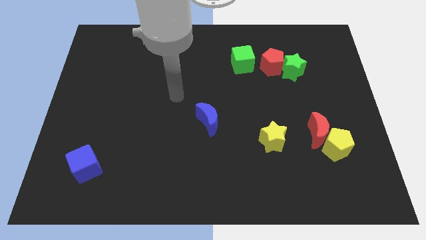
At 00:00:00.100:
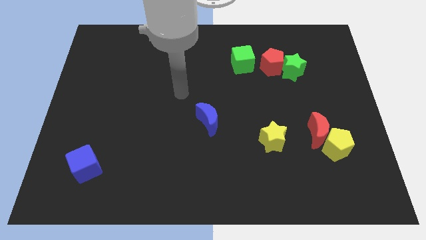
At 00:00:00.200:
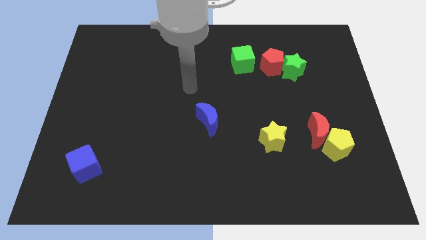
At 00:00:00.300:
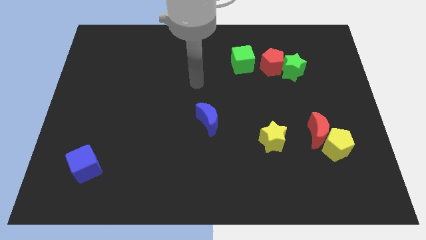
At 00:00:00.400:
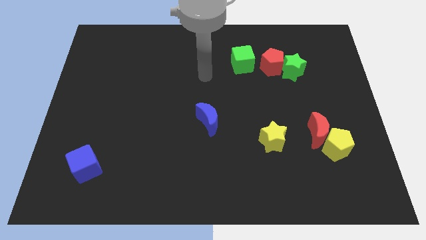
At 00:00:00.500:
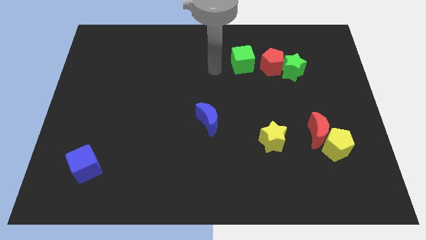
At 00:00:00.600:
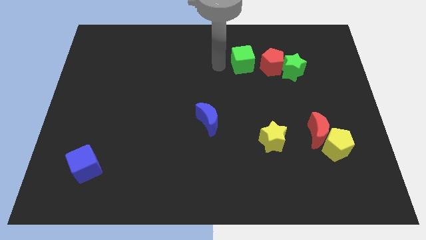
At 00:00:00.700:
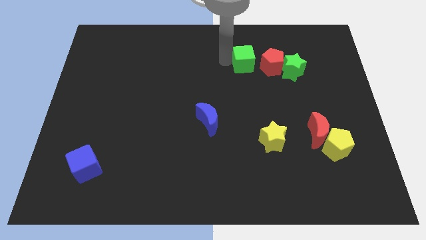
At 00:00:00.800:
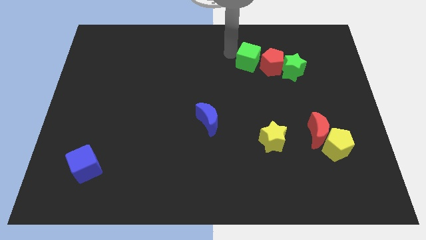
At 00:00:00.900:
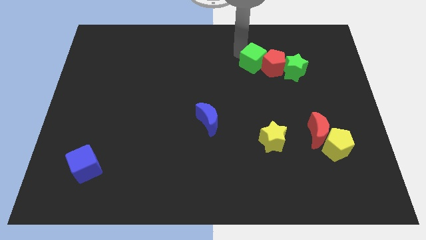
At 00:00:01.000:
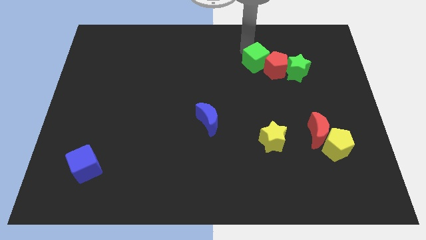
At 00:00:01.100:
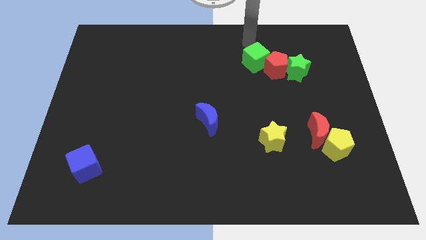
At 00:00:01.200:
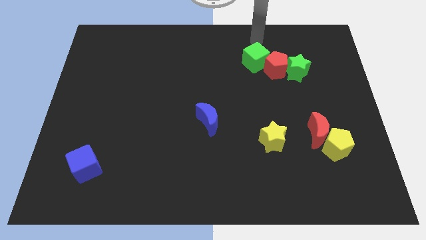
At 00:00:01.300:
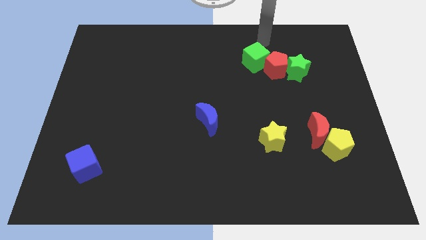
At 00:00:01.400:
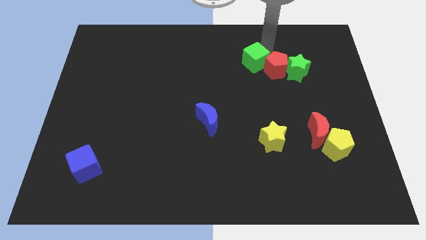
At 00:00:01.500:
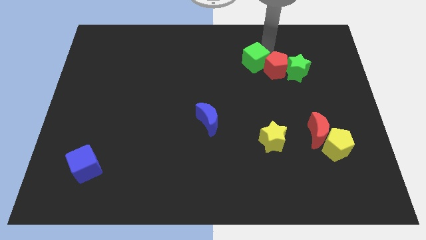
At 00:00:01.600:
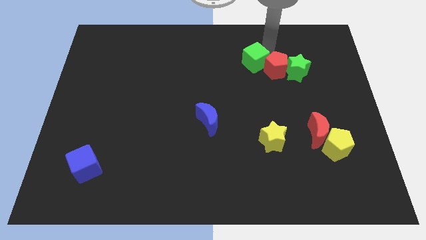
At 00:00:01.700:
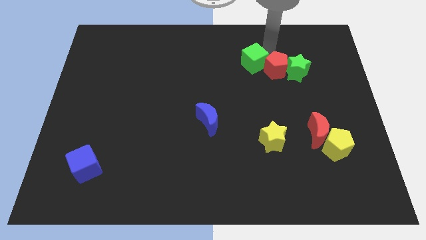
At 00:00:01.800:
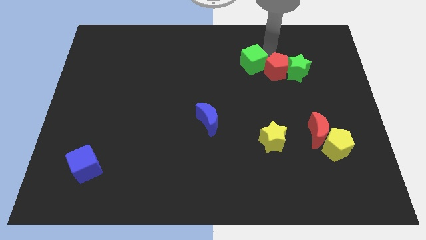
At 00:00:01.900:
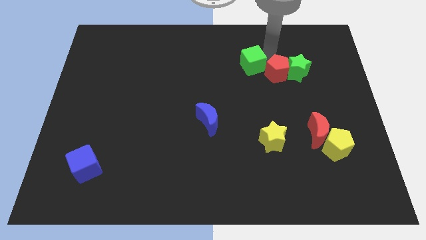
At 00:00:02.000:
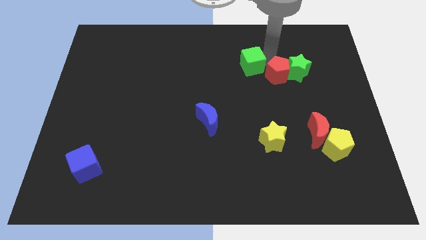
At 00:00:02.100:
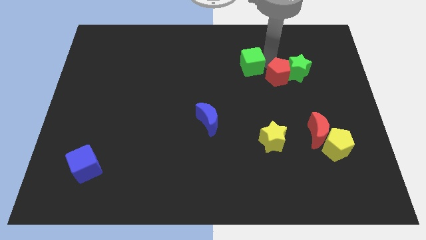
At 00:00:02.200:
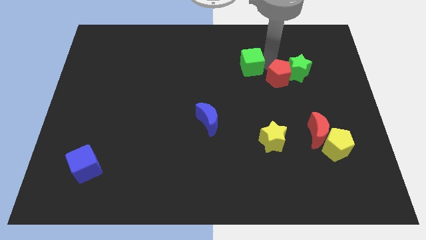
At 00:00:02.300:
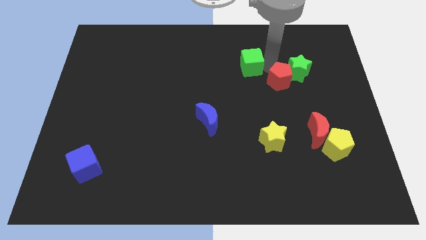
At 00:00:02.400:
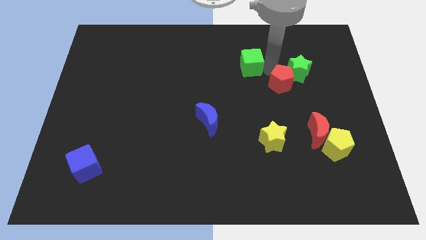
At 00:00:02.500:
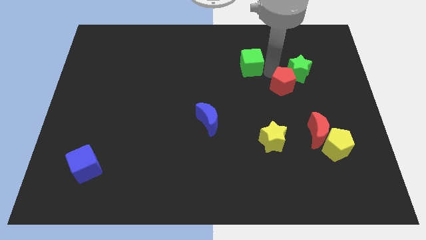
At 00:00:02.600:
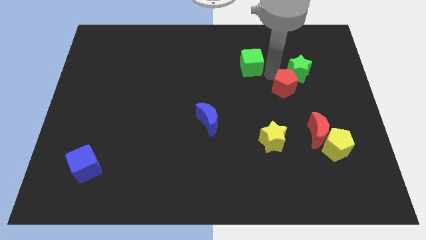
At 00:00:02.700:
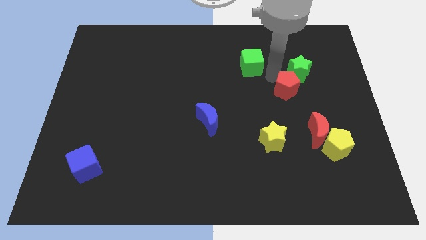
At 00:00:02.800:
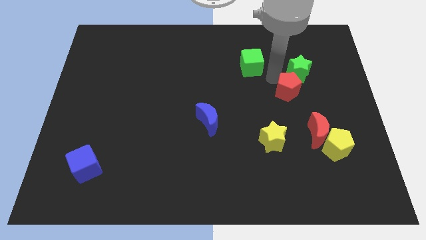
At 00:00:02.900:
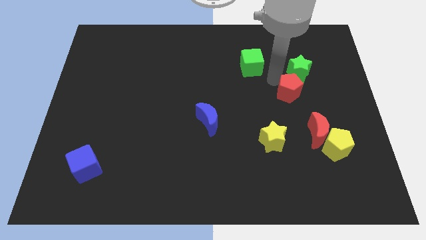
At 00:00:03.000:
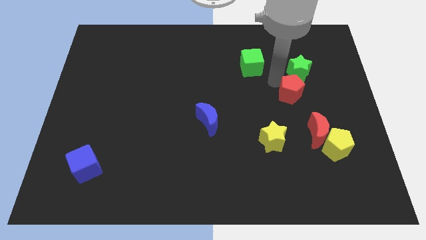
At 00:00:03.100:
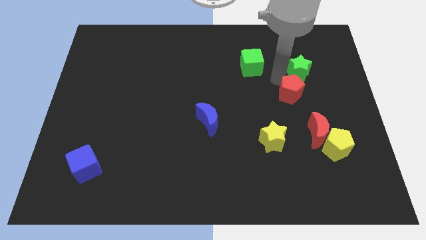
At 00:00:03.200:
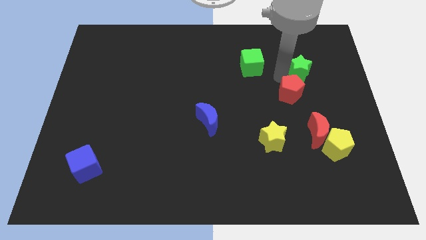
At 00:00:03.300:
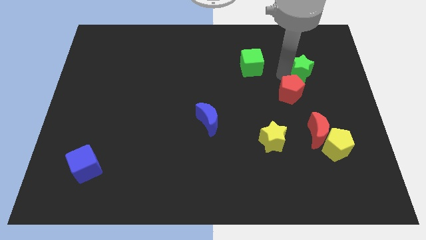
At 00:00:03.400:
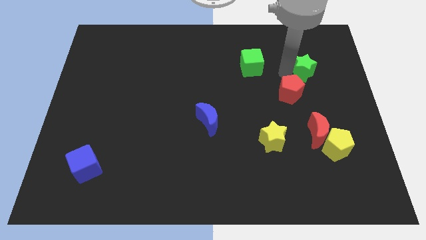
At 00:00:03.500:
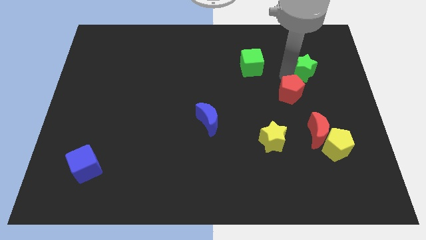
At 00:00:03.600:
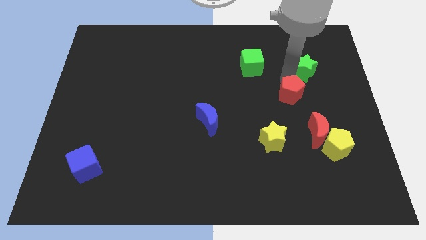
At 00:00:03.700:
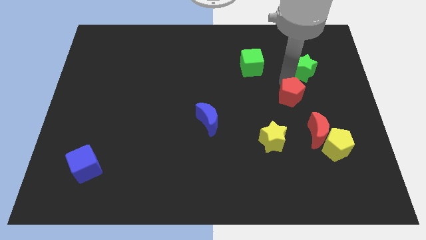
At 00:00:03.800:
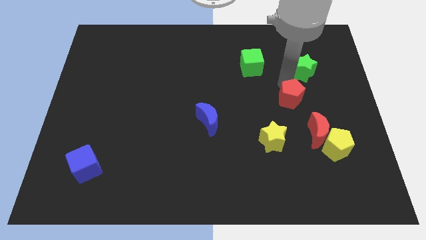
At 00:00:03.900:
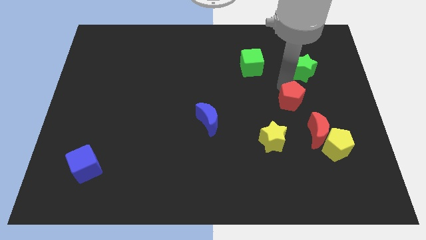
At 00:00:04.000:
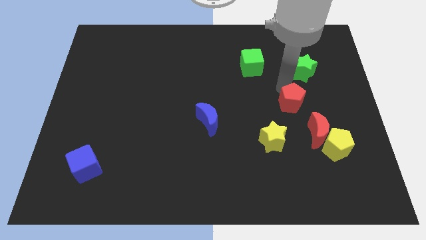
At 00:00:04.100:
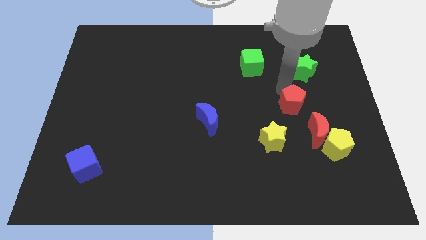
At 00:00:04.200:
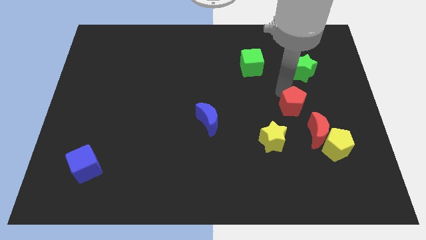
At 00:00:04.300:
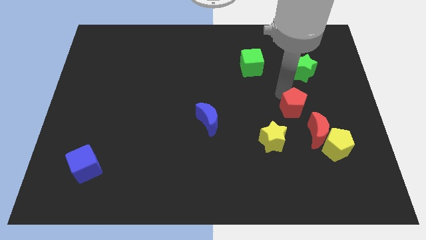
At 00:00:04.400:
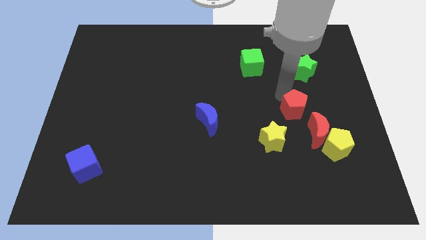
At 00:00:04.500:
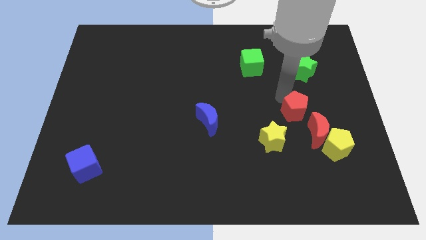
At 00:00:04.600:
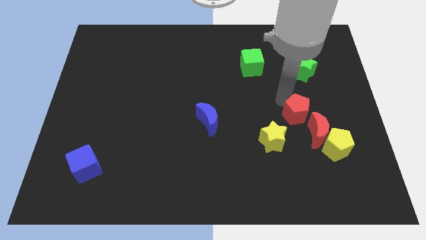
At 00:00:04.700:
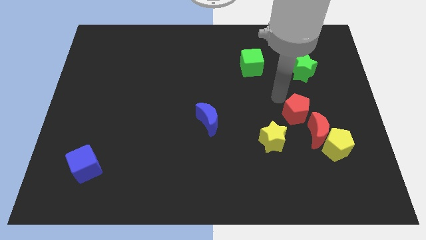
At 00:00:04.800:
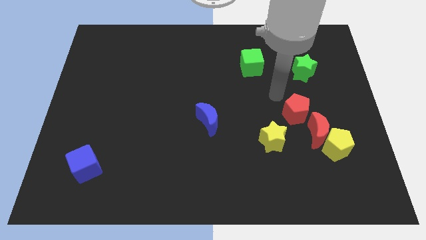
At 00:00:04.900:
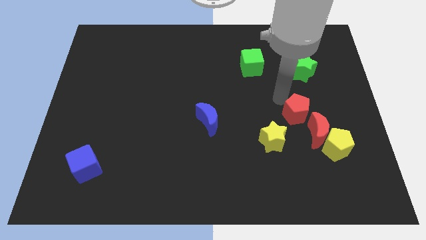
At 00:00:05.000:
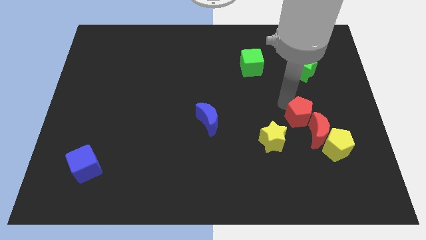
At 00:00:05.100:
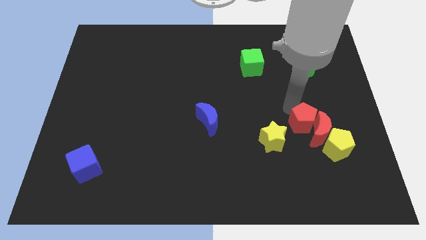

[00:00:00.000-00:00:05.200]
put the red pentagon close to the red moon

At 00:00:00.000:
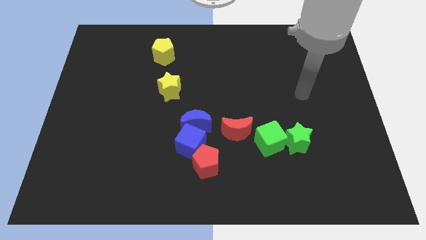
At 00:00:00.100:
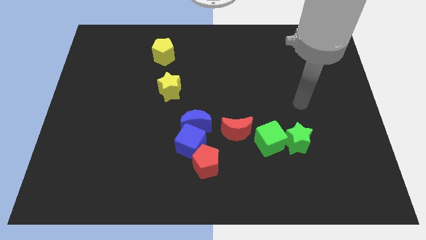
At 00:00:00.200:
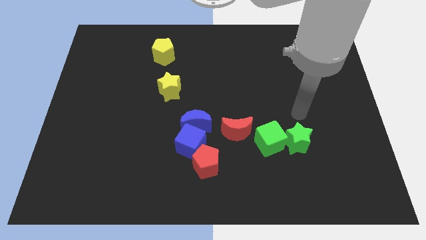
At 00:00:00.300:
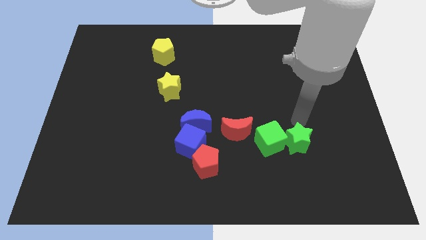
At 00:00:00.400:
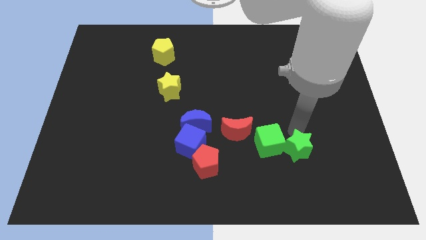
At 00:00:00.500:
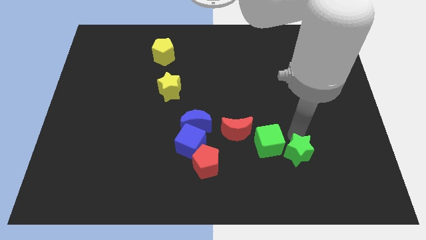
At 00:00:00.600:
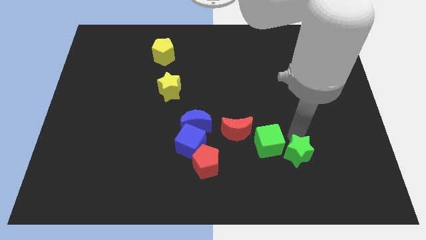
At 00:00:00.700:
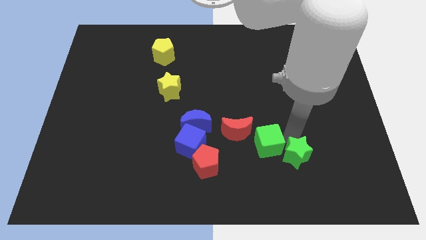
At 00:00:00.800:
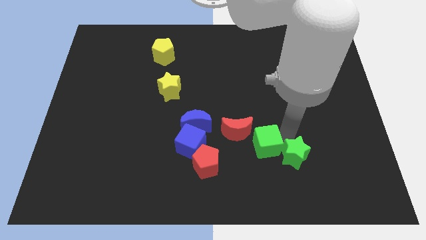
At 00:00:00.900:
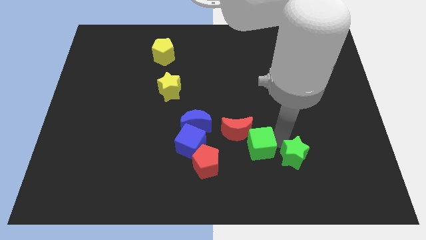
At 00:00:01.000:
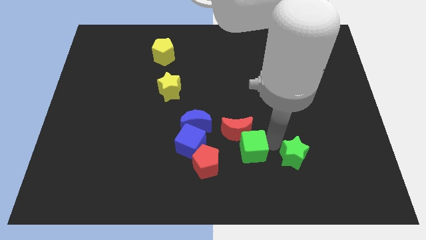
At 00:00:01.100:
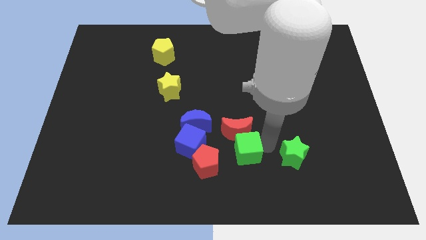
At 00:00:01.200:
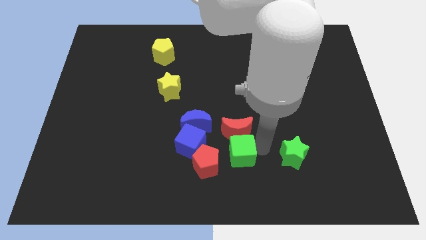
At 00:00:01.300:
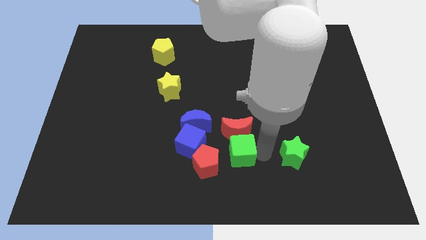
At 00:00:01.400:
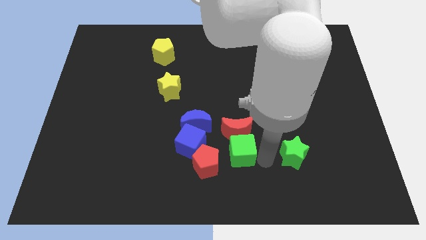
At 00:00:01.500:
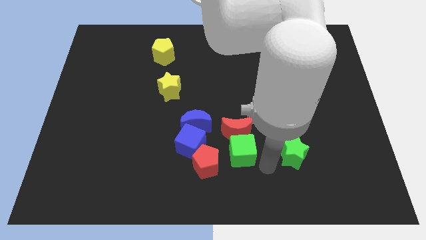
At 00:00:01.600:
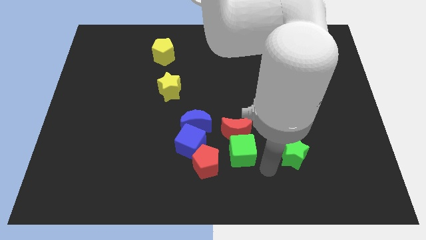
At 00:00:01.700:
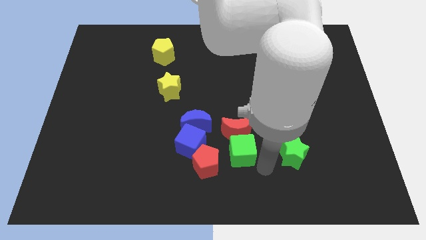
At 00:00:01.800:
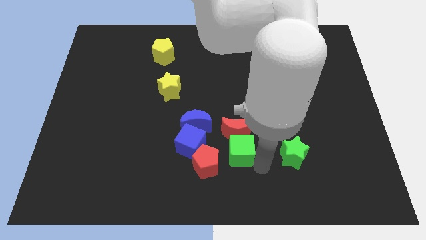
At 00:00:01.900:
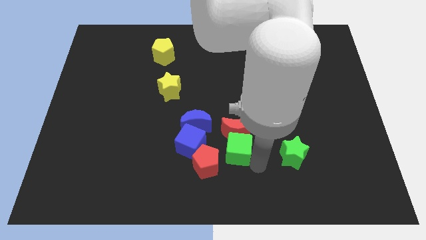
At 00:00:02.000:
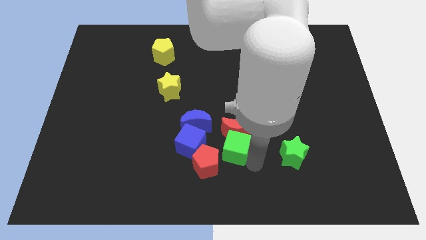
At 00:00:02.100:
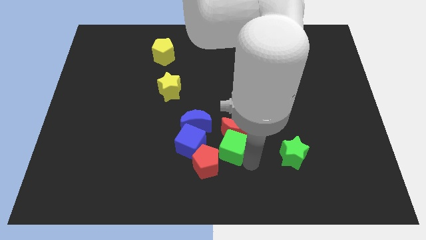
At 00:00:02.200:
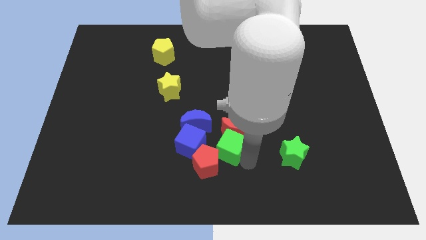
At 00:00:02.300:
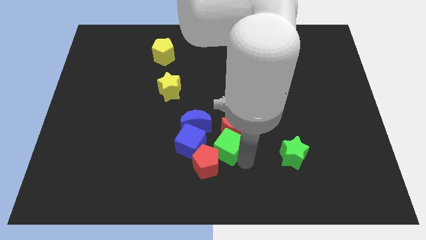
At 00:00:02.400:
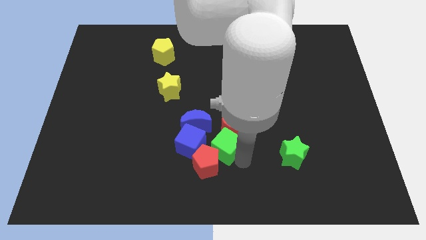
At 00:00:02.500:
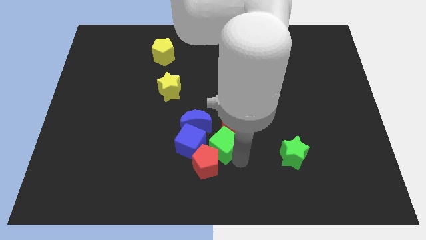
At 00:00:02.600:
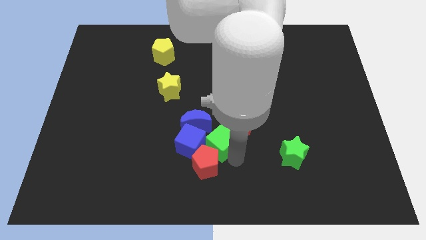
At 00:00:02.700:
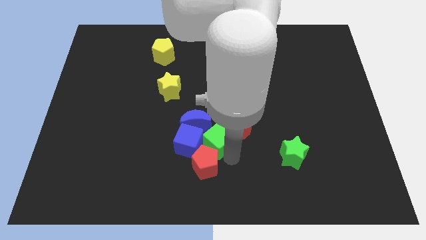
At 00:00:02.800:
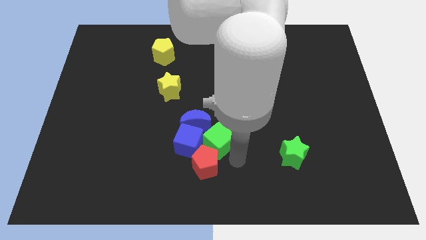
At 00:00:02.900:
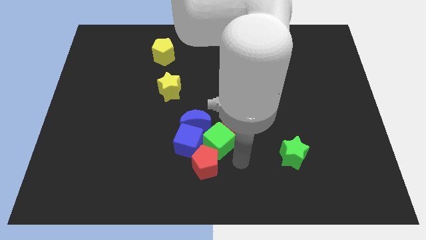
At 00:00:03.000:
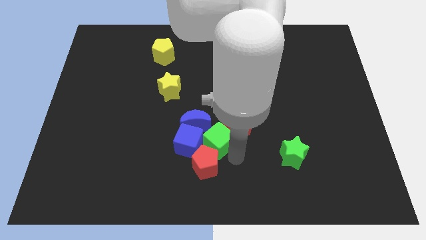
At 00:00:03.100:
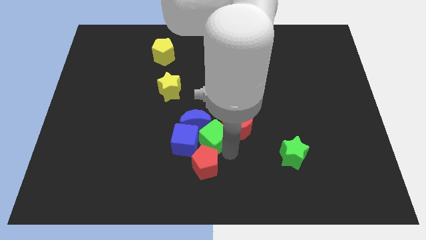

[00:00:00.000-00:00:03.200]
push the green cube close to the blue moon
